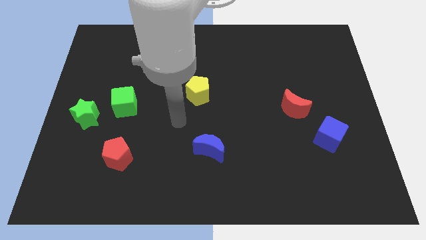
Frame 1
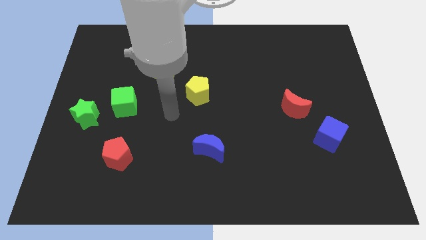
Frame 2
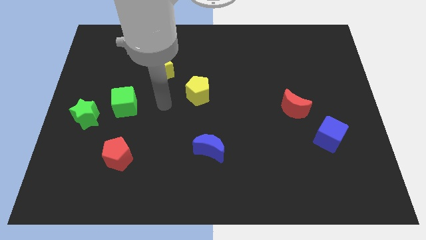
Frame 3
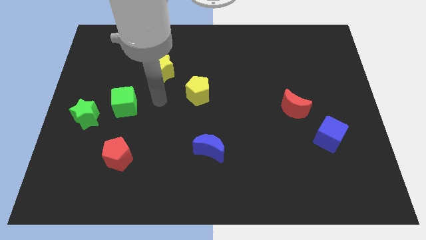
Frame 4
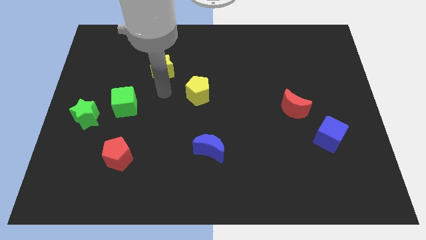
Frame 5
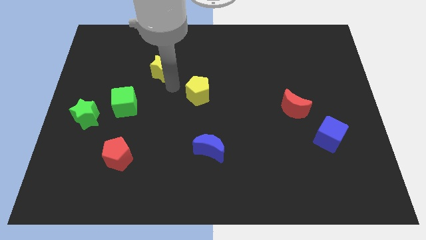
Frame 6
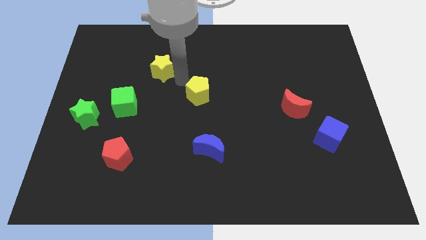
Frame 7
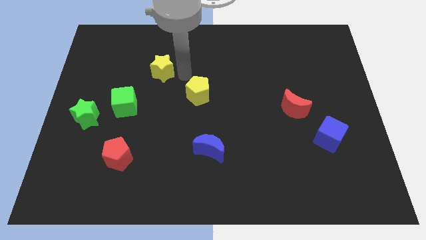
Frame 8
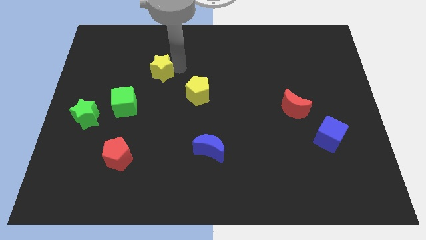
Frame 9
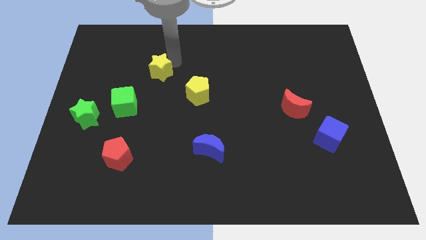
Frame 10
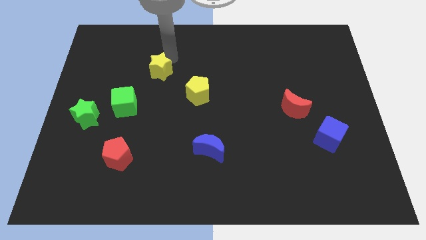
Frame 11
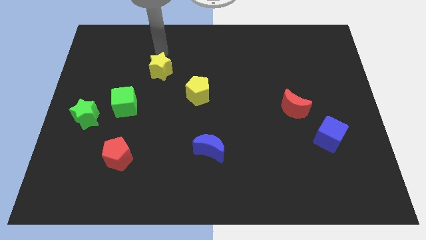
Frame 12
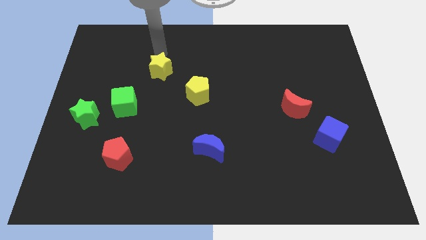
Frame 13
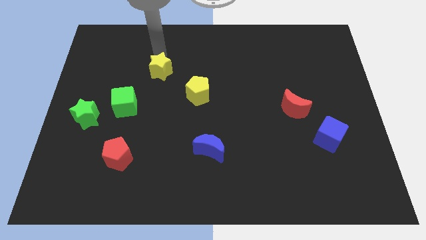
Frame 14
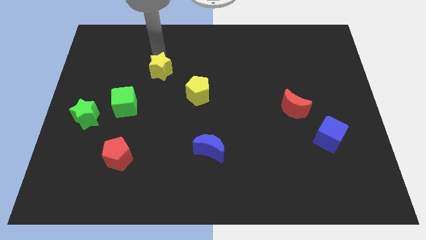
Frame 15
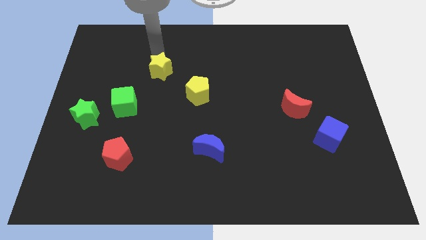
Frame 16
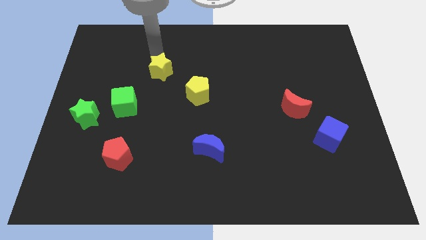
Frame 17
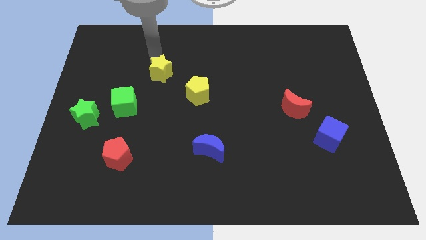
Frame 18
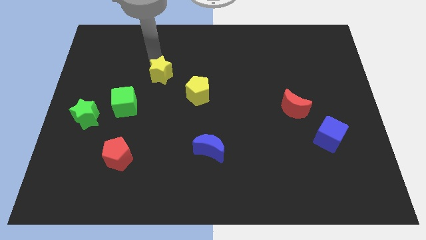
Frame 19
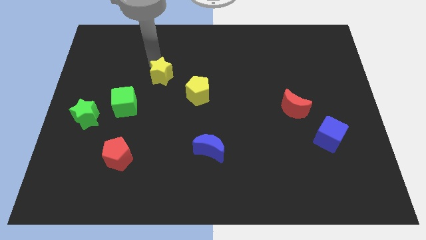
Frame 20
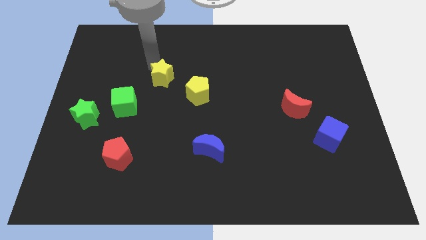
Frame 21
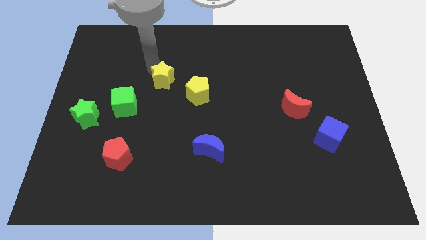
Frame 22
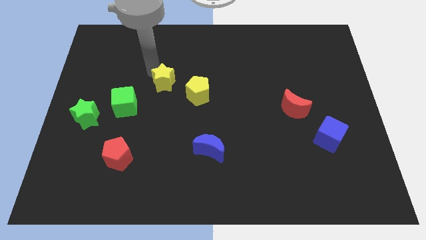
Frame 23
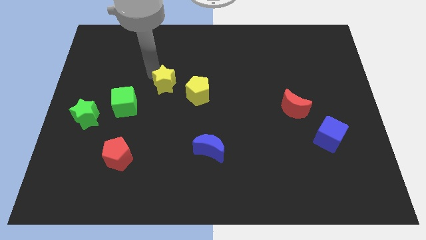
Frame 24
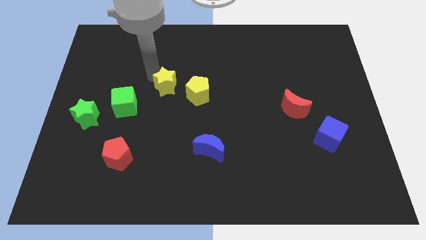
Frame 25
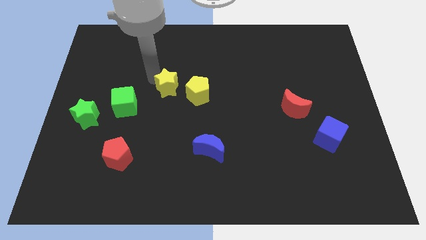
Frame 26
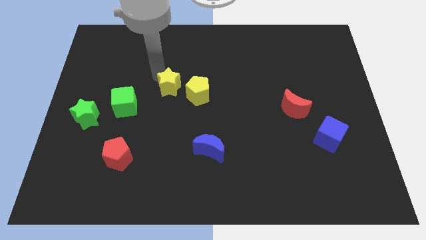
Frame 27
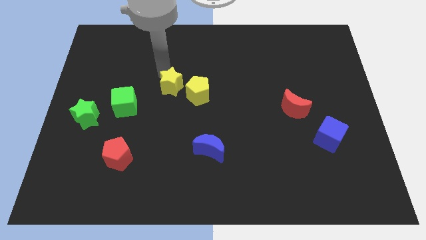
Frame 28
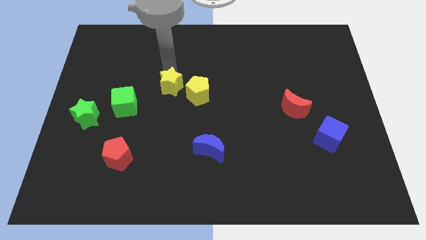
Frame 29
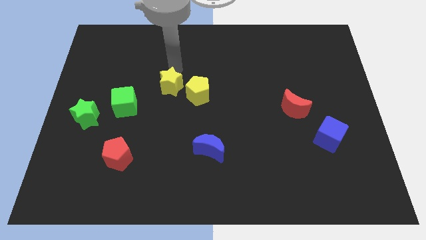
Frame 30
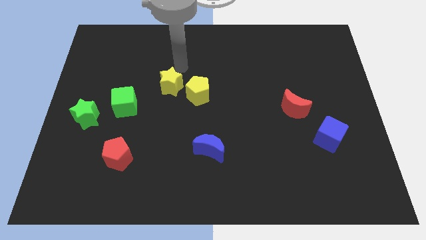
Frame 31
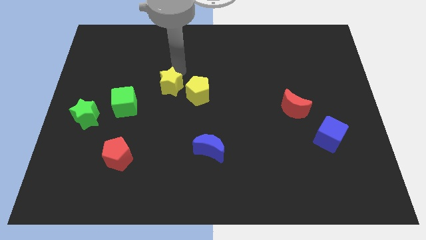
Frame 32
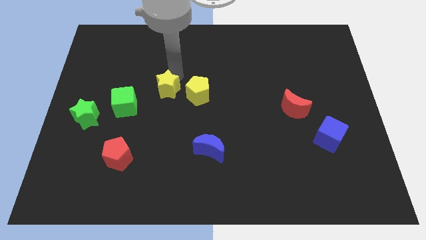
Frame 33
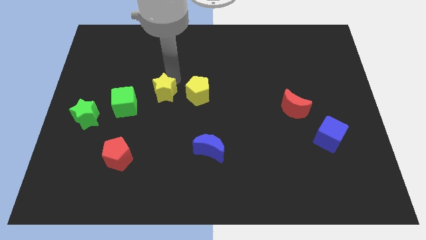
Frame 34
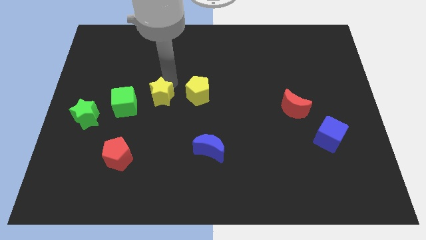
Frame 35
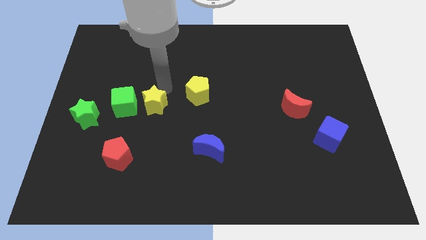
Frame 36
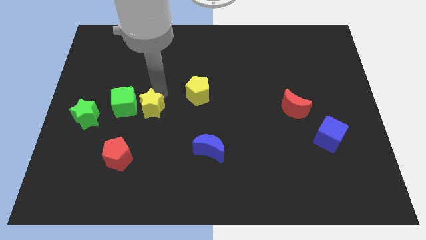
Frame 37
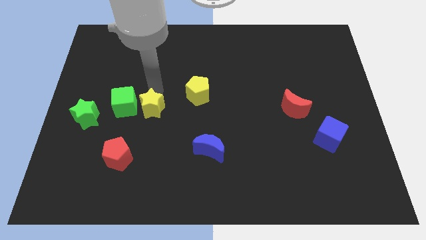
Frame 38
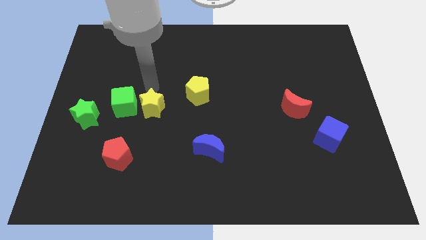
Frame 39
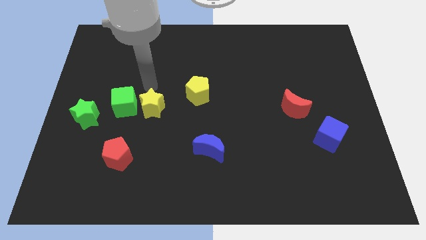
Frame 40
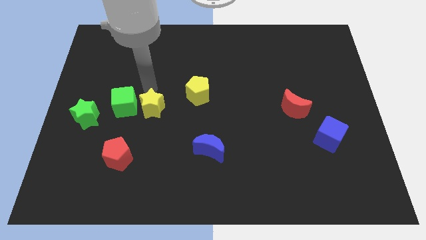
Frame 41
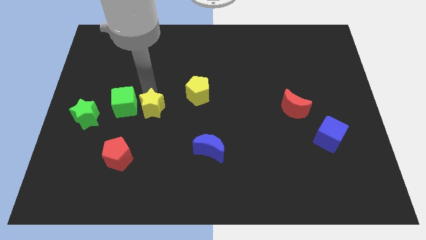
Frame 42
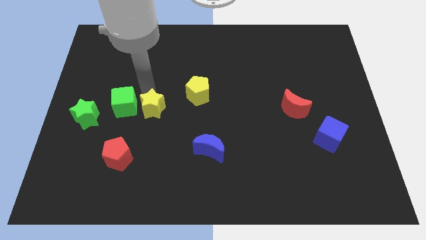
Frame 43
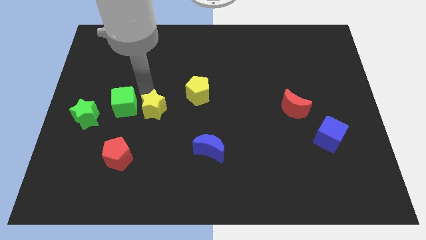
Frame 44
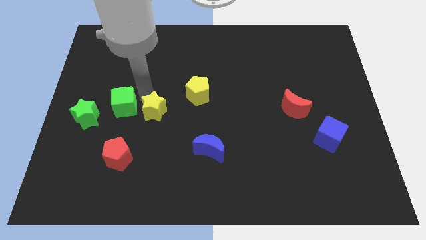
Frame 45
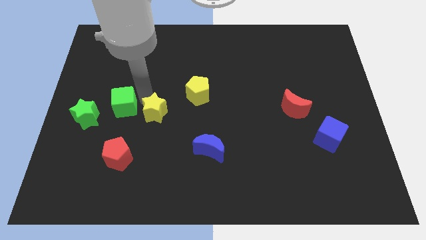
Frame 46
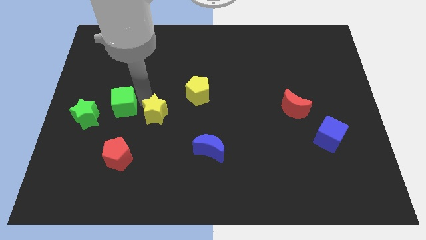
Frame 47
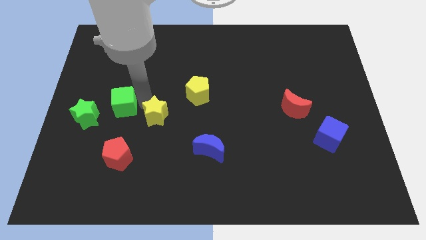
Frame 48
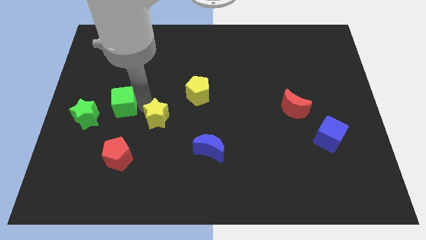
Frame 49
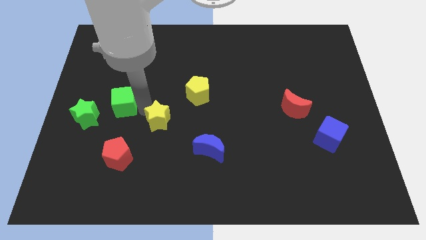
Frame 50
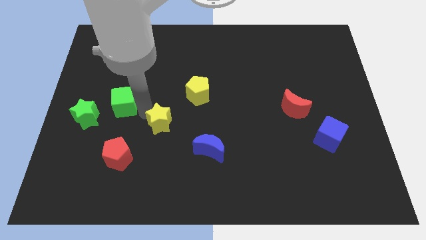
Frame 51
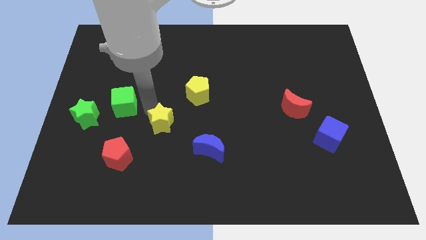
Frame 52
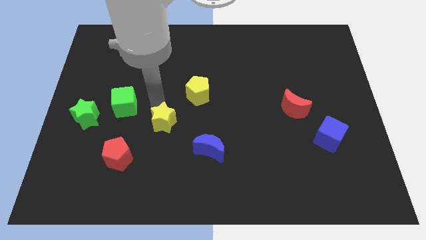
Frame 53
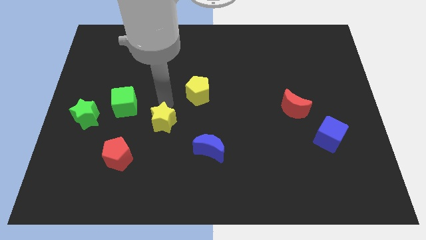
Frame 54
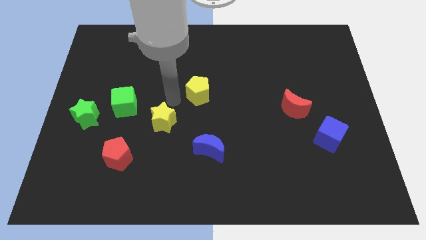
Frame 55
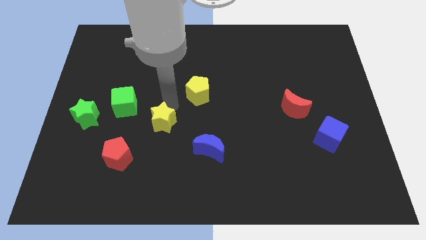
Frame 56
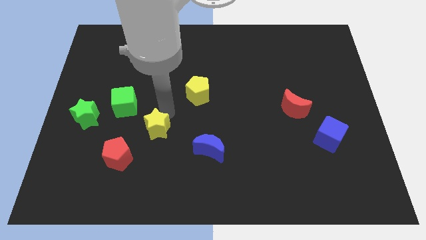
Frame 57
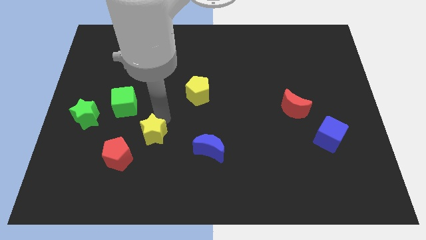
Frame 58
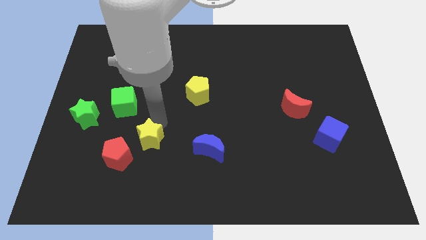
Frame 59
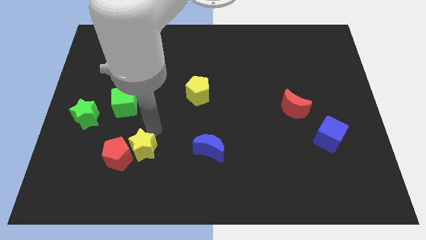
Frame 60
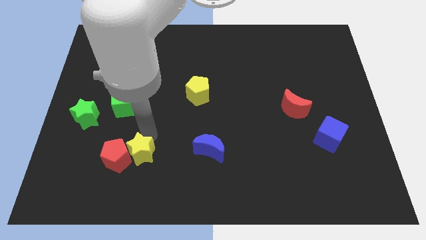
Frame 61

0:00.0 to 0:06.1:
move the yellow star diagonally down and to the right of the red pentagon

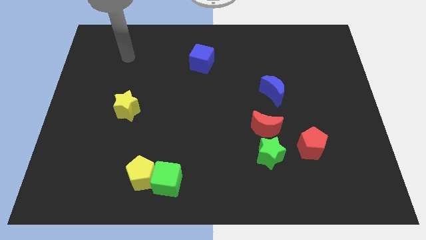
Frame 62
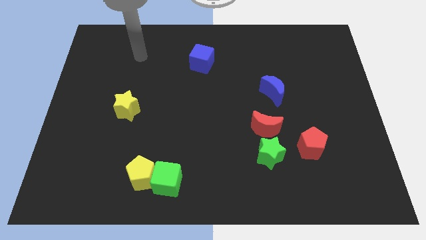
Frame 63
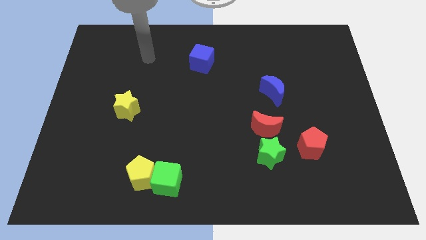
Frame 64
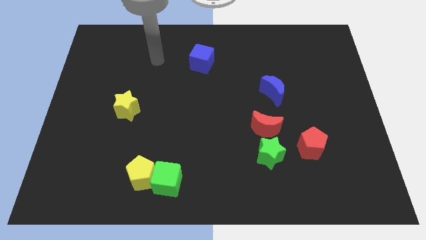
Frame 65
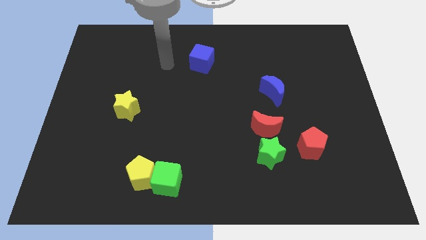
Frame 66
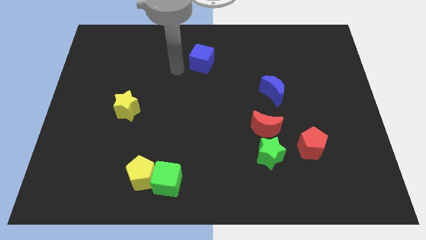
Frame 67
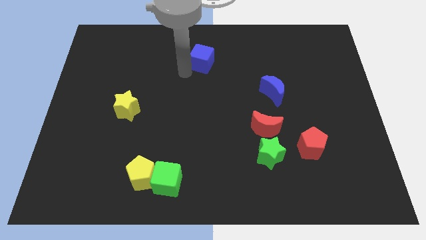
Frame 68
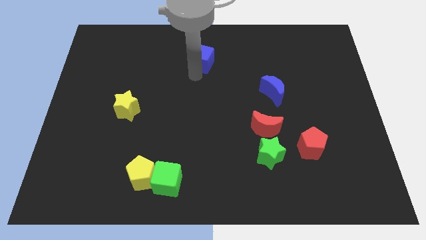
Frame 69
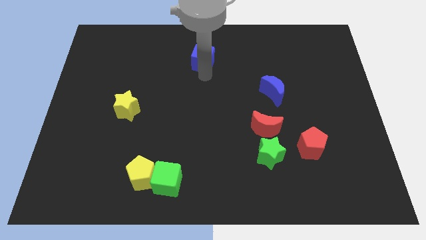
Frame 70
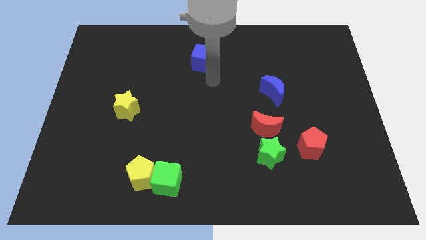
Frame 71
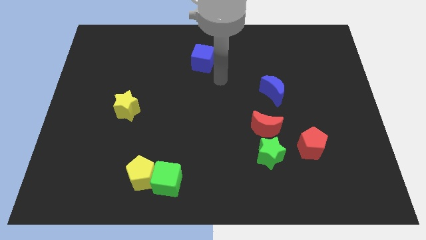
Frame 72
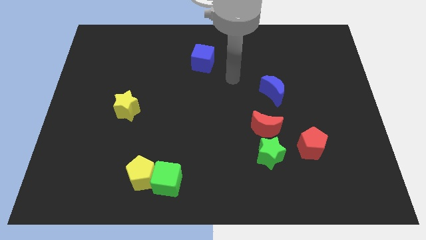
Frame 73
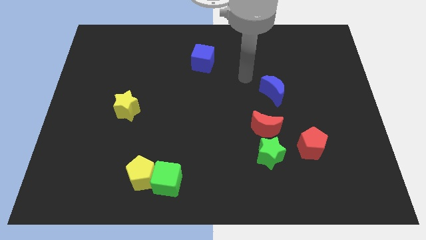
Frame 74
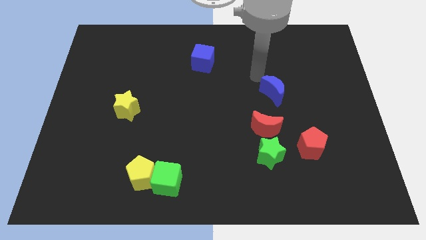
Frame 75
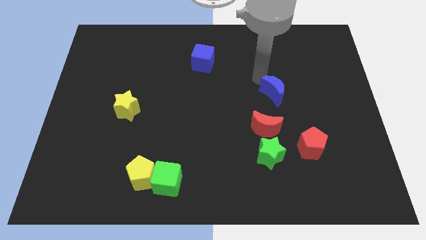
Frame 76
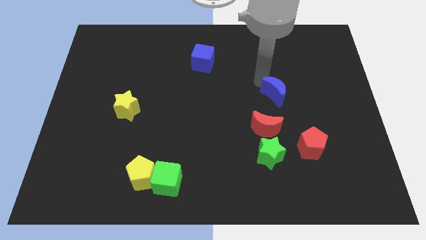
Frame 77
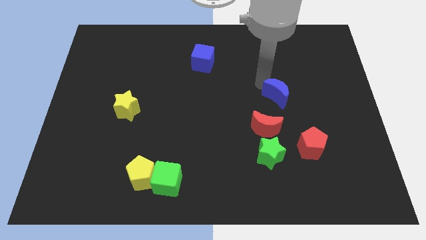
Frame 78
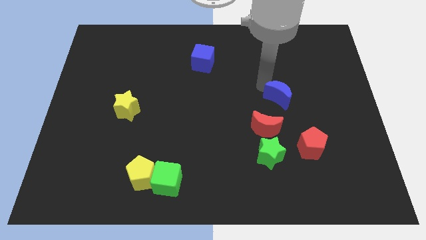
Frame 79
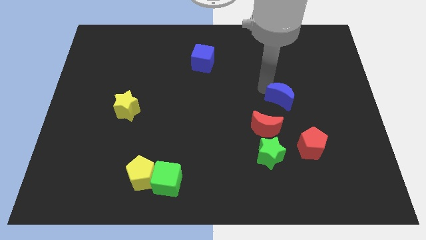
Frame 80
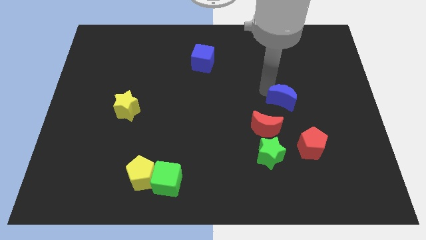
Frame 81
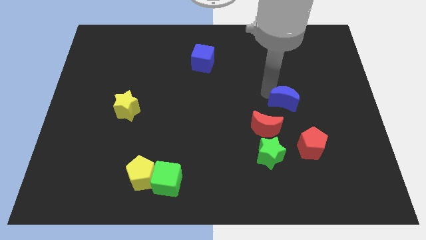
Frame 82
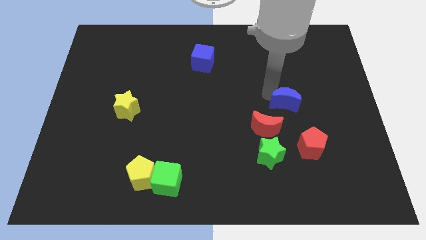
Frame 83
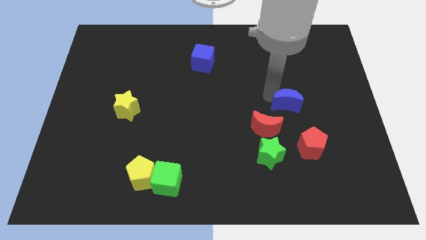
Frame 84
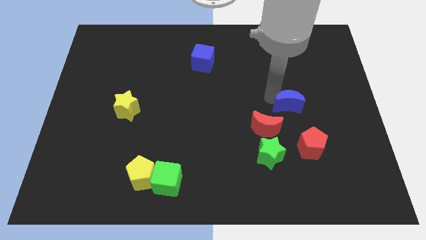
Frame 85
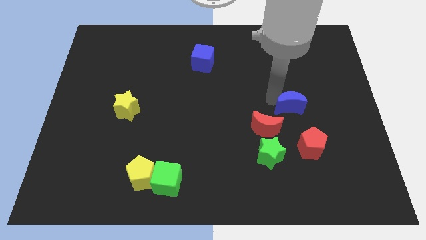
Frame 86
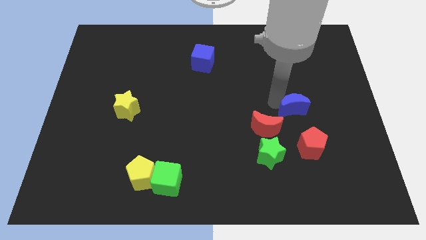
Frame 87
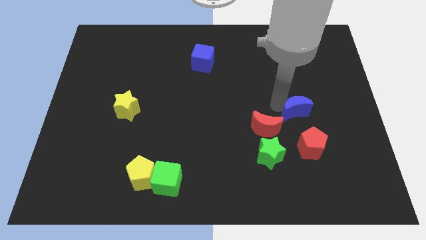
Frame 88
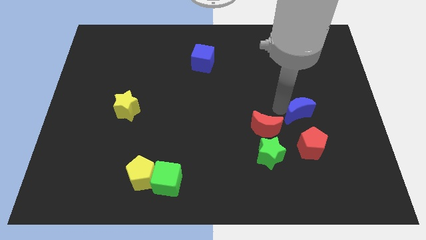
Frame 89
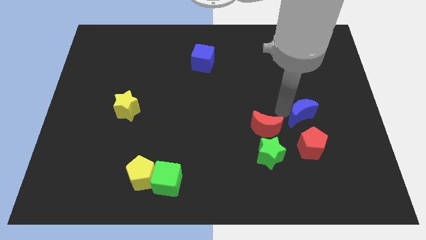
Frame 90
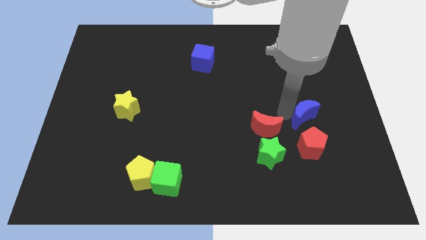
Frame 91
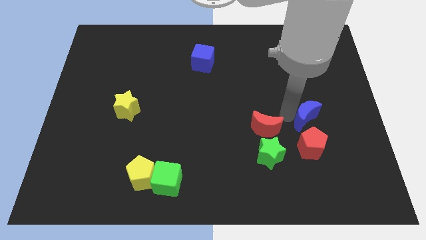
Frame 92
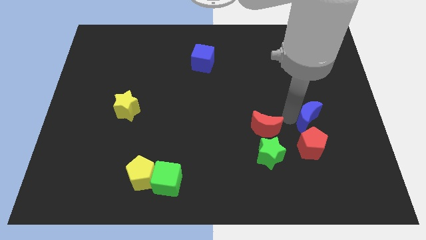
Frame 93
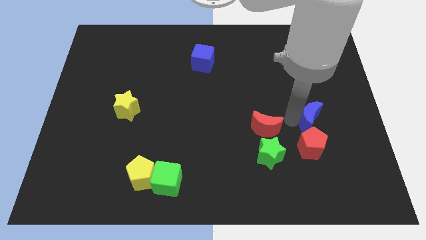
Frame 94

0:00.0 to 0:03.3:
move the blue moon to the top right of the red pentagon
